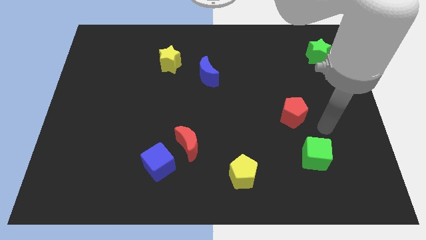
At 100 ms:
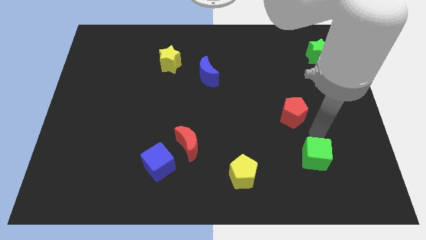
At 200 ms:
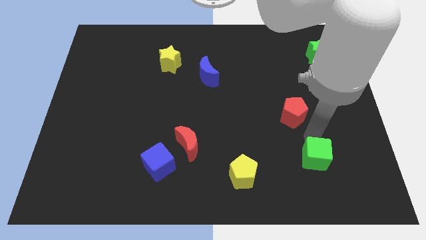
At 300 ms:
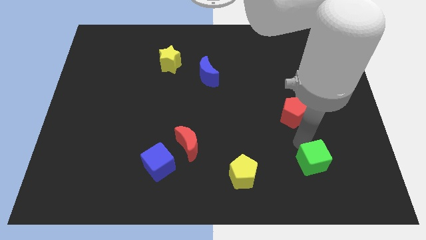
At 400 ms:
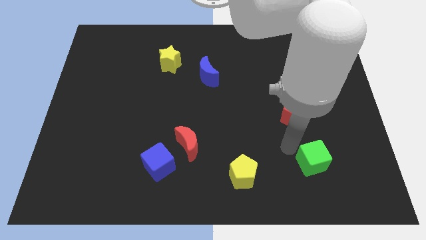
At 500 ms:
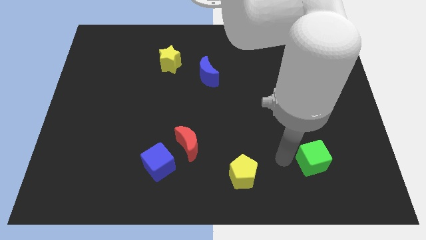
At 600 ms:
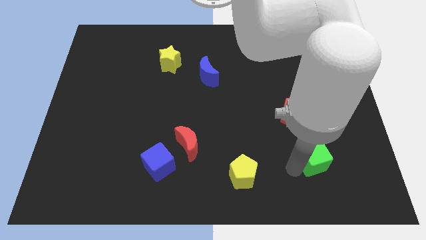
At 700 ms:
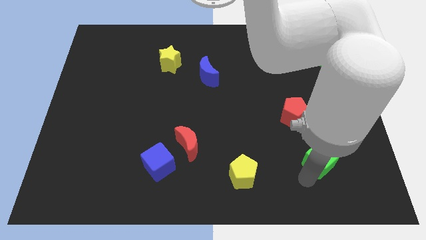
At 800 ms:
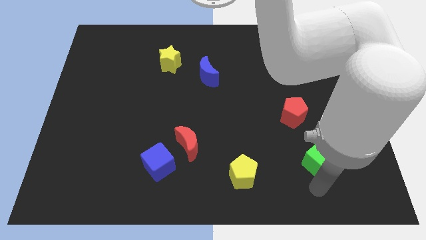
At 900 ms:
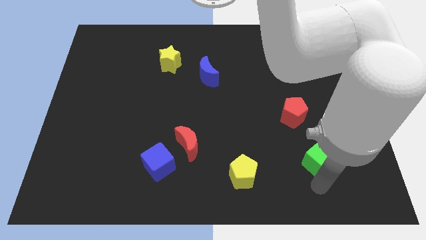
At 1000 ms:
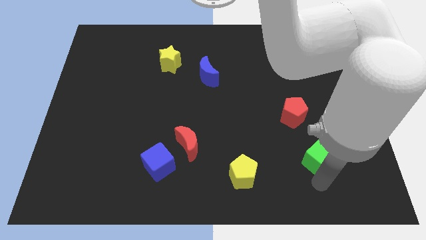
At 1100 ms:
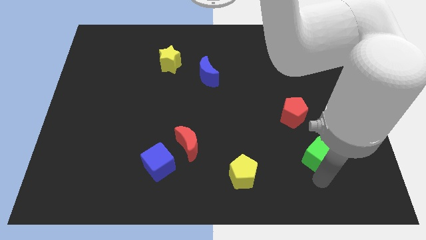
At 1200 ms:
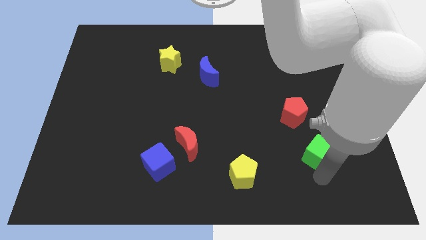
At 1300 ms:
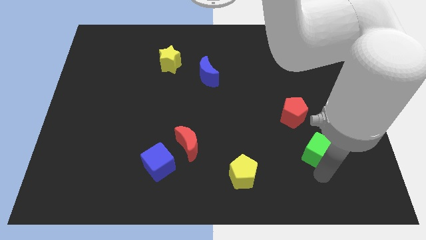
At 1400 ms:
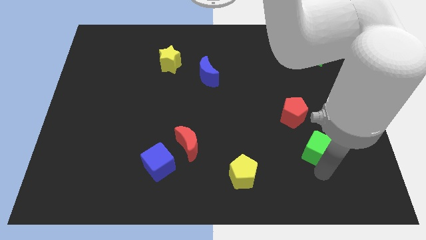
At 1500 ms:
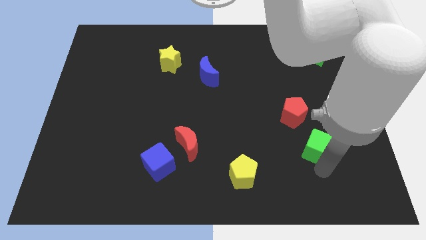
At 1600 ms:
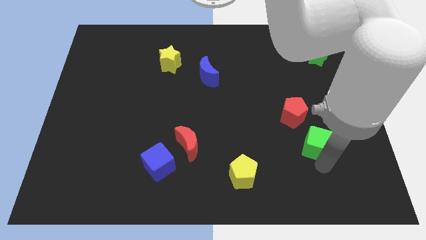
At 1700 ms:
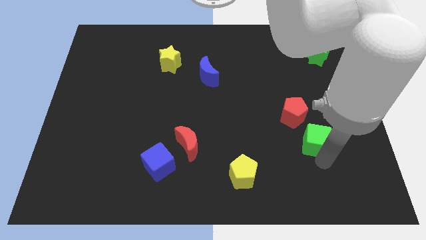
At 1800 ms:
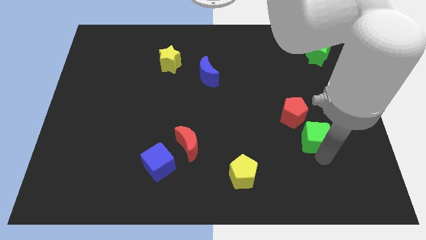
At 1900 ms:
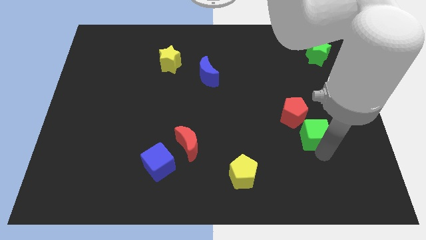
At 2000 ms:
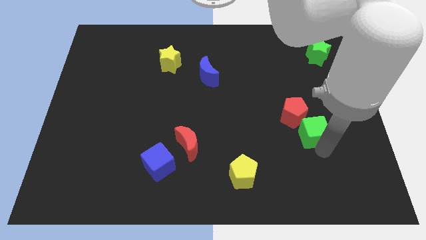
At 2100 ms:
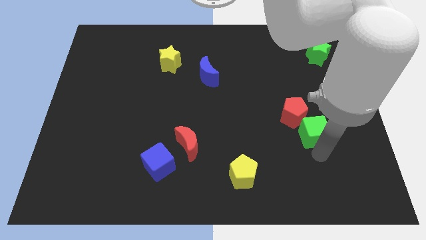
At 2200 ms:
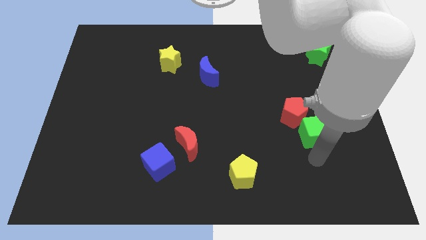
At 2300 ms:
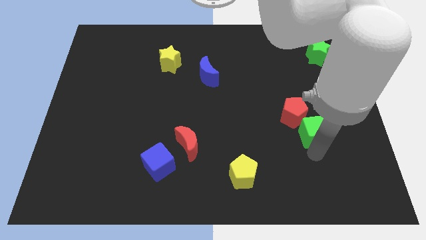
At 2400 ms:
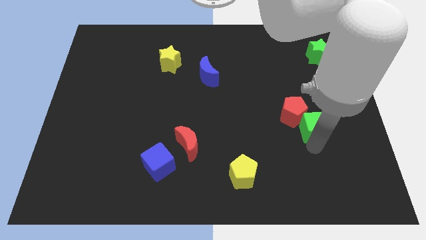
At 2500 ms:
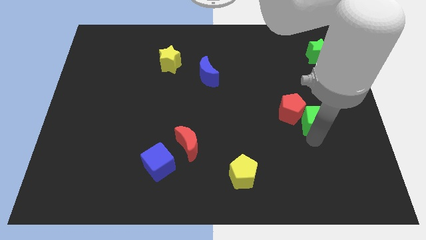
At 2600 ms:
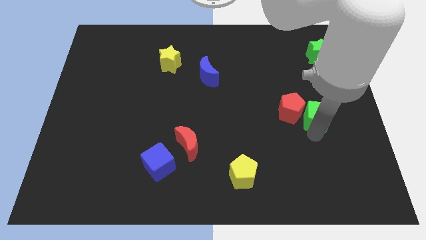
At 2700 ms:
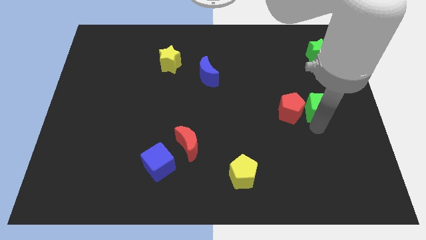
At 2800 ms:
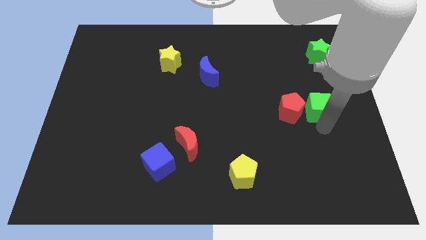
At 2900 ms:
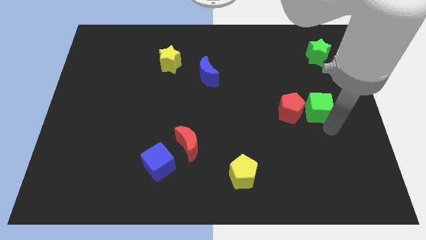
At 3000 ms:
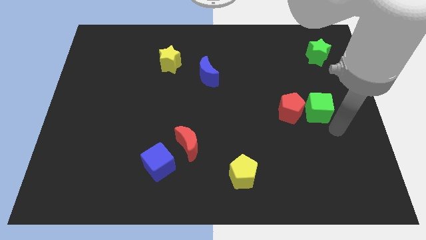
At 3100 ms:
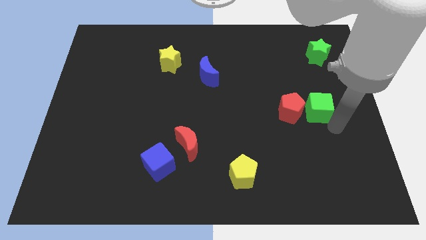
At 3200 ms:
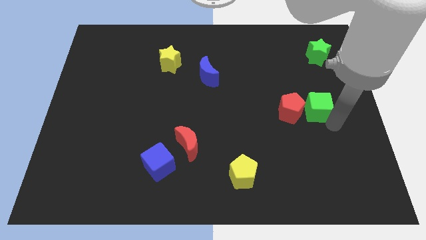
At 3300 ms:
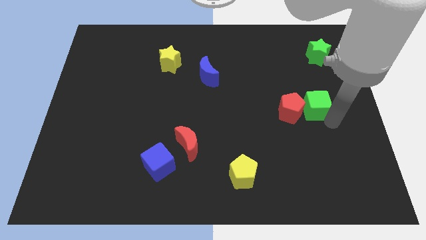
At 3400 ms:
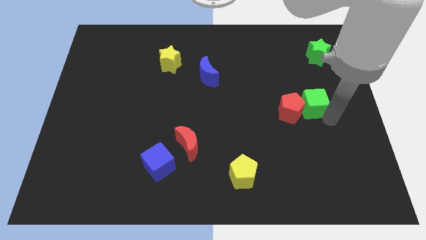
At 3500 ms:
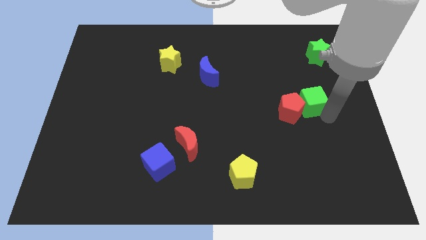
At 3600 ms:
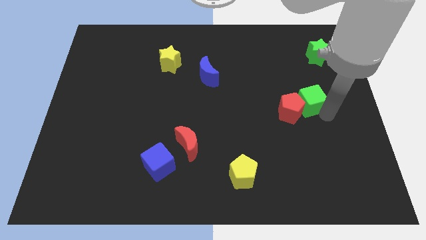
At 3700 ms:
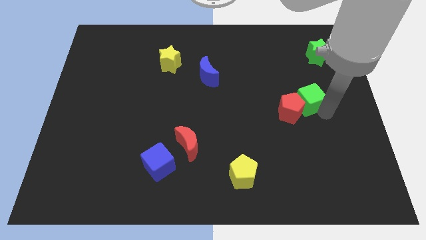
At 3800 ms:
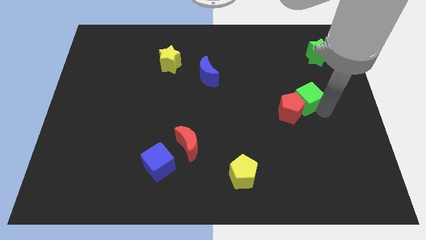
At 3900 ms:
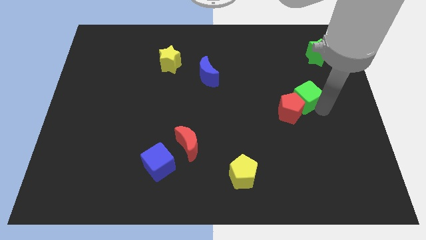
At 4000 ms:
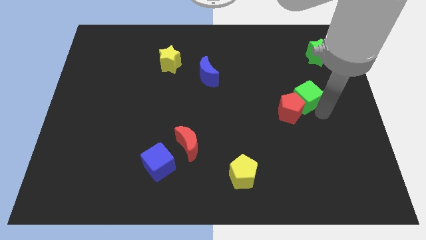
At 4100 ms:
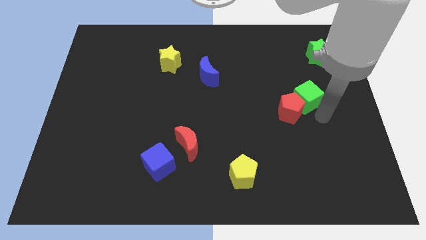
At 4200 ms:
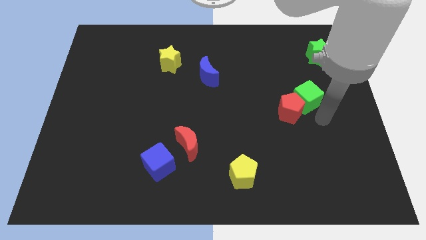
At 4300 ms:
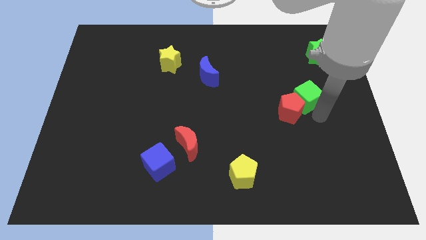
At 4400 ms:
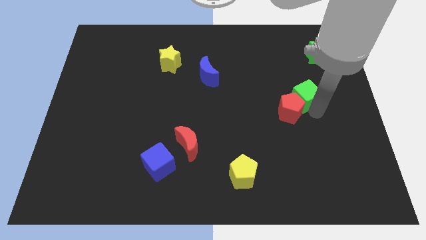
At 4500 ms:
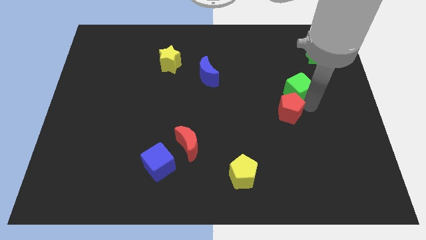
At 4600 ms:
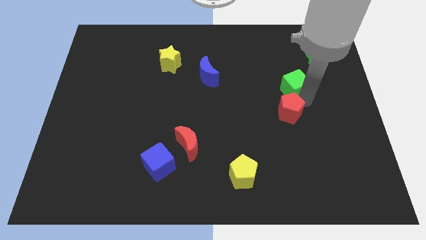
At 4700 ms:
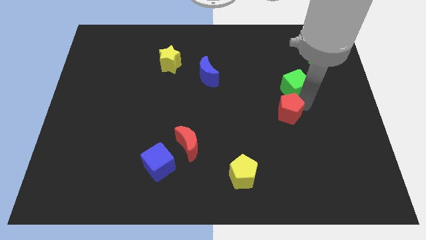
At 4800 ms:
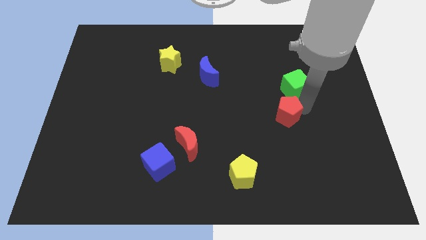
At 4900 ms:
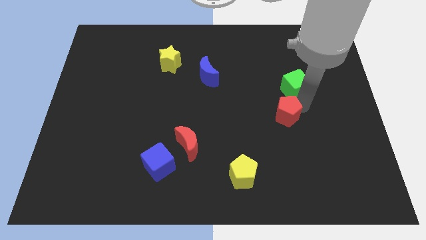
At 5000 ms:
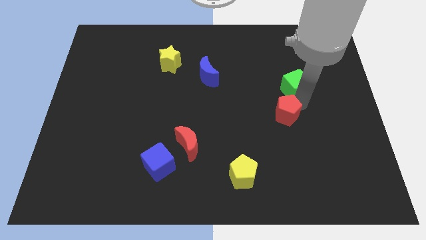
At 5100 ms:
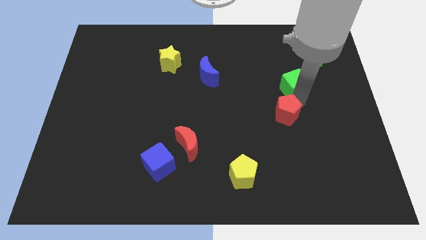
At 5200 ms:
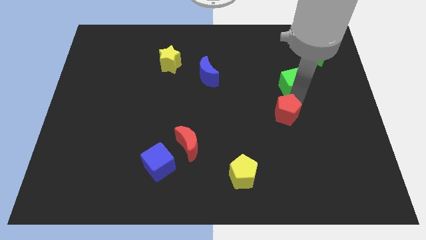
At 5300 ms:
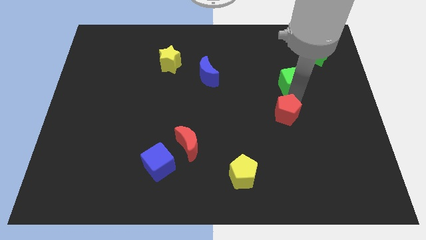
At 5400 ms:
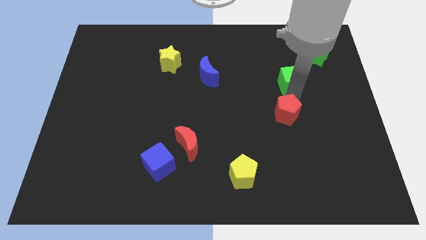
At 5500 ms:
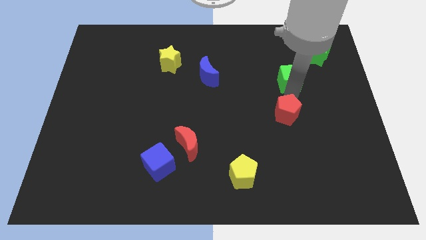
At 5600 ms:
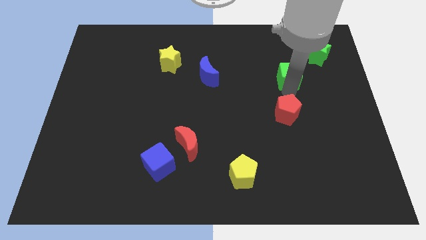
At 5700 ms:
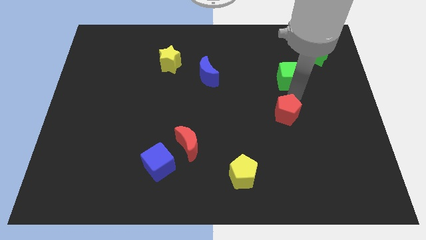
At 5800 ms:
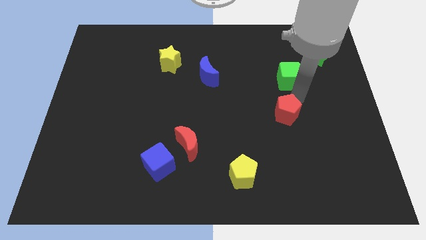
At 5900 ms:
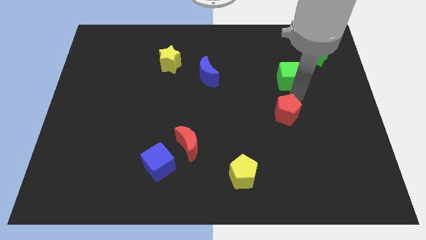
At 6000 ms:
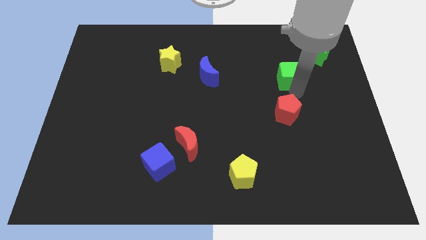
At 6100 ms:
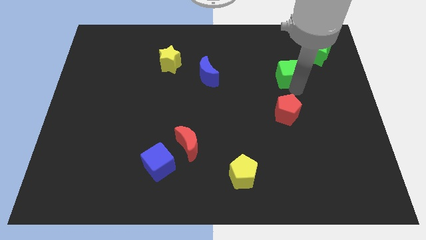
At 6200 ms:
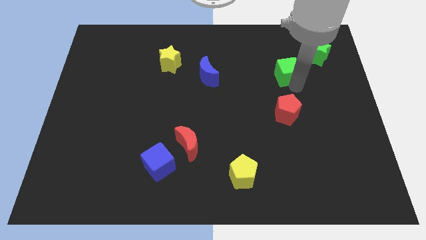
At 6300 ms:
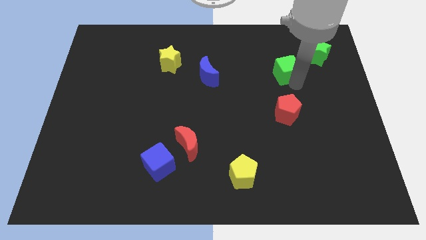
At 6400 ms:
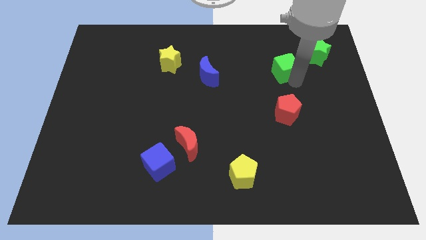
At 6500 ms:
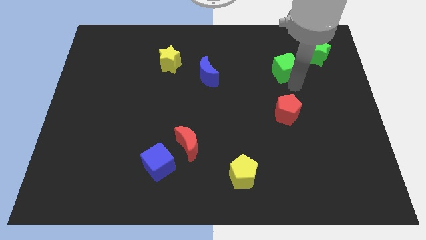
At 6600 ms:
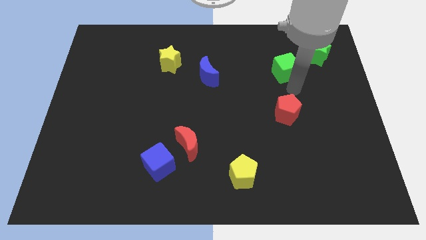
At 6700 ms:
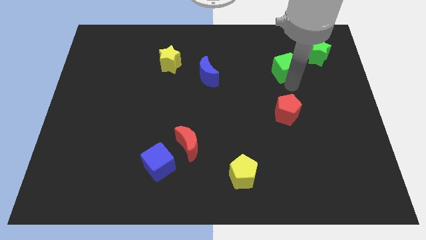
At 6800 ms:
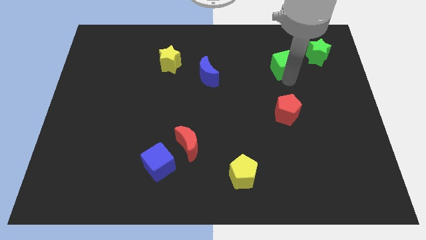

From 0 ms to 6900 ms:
put the green cube to the left side of the green star

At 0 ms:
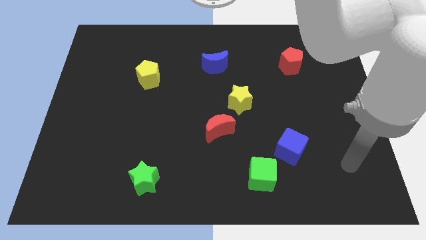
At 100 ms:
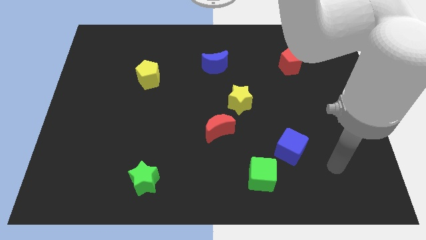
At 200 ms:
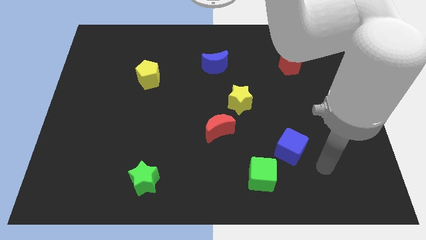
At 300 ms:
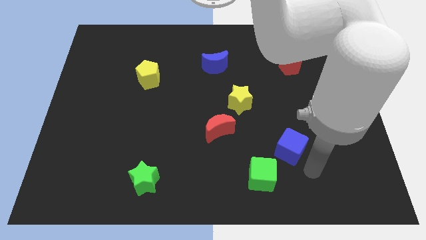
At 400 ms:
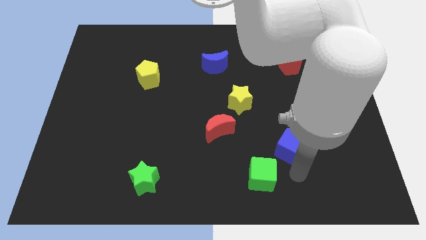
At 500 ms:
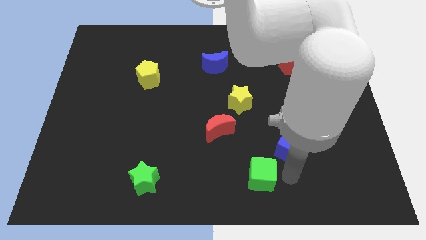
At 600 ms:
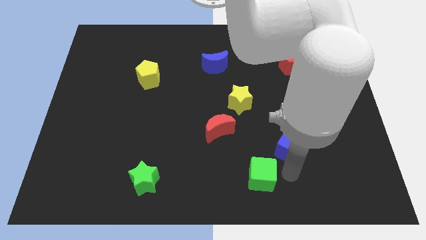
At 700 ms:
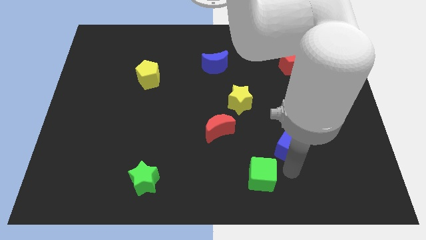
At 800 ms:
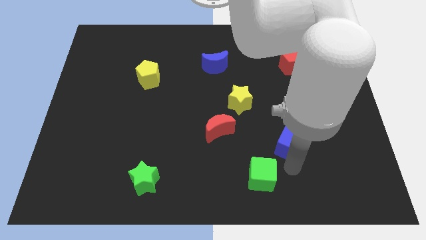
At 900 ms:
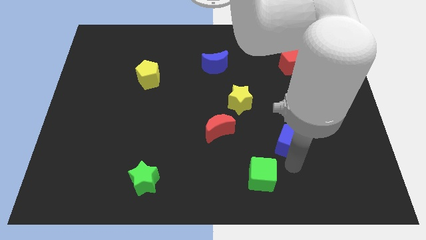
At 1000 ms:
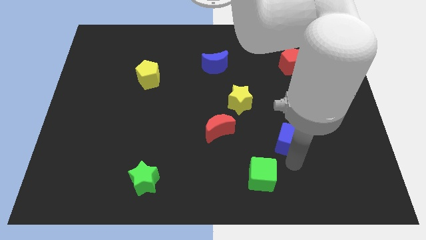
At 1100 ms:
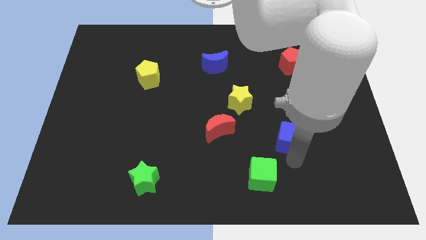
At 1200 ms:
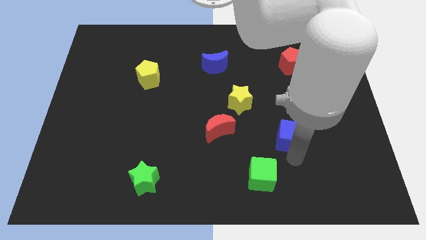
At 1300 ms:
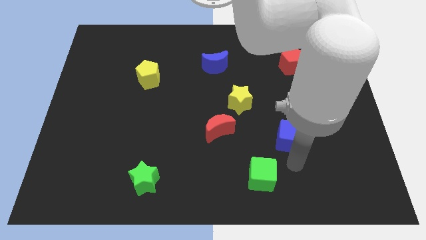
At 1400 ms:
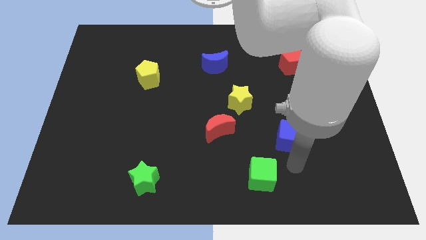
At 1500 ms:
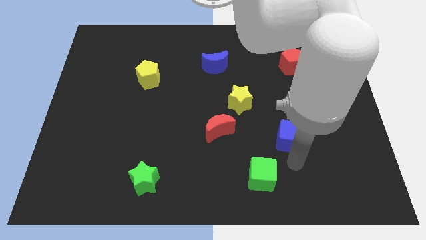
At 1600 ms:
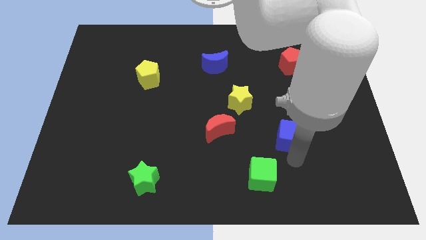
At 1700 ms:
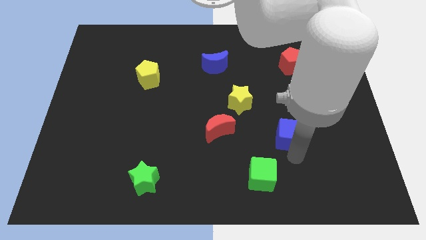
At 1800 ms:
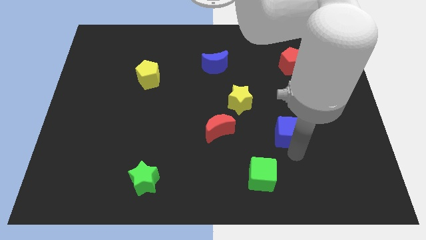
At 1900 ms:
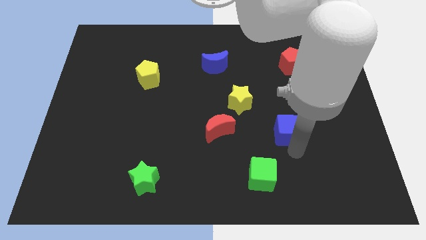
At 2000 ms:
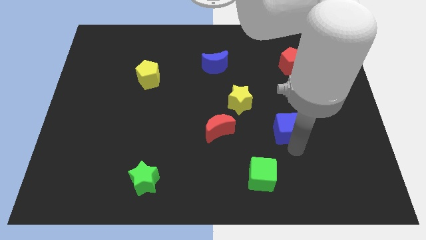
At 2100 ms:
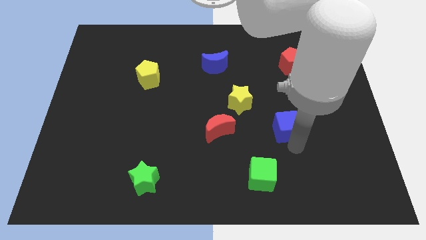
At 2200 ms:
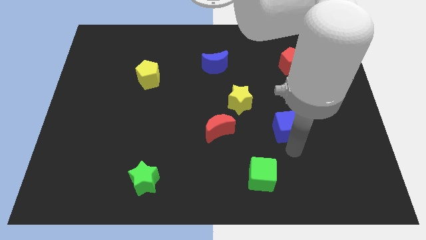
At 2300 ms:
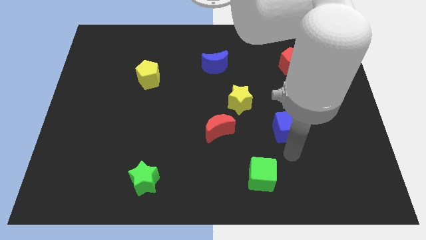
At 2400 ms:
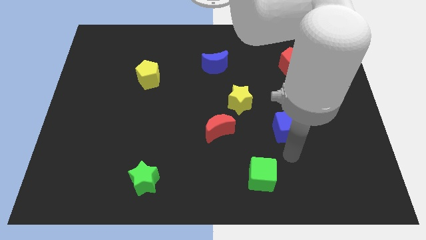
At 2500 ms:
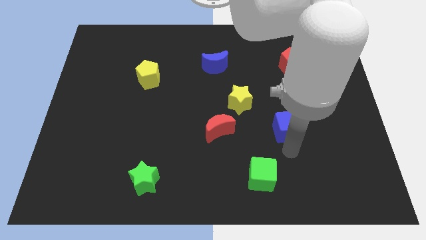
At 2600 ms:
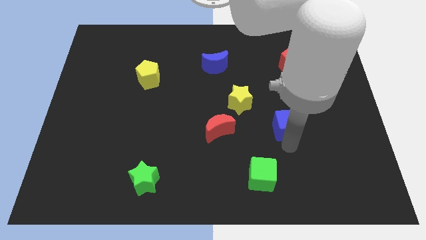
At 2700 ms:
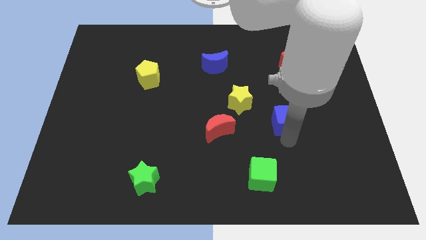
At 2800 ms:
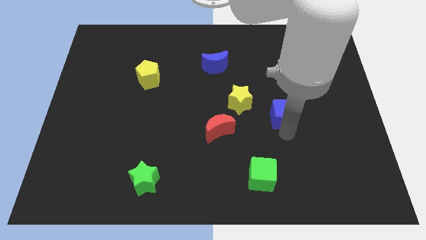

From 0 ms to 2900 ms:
slide the blue cube to the right of the yellow star
